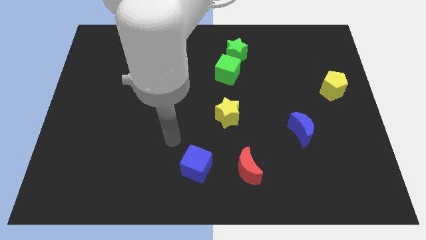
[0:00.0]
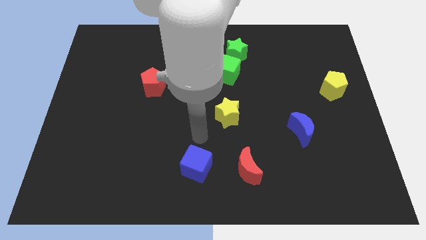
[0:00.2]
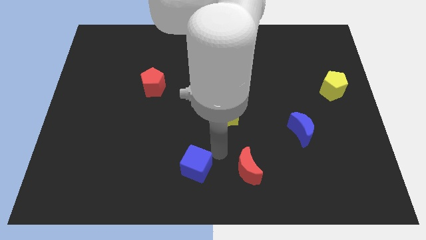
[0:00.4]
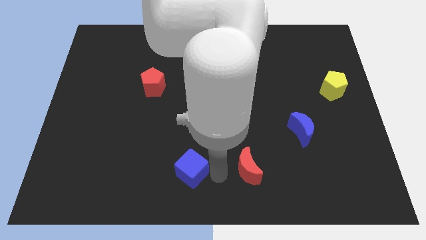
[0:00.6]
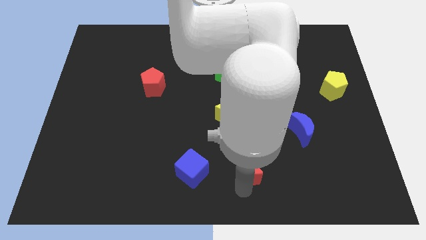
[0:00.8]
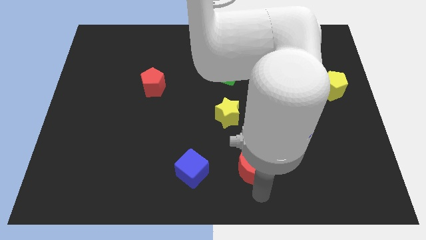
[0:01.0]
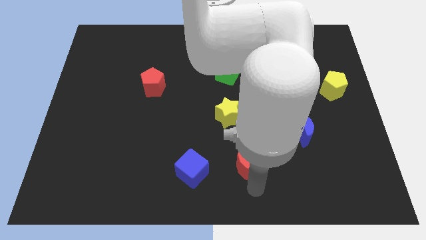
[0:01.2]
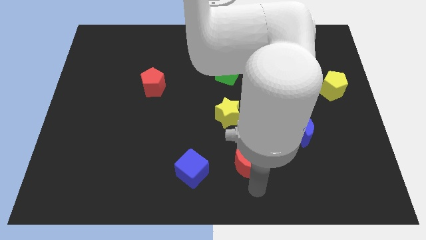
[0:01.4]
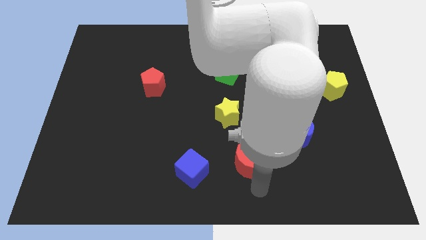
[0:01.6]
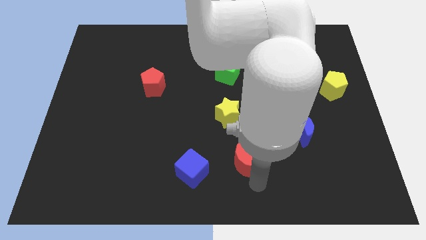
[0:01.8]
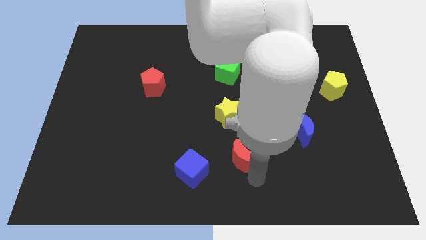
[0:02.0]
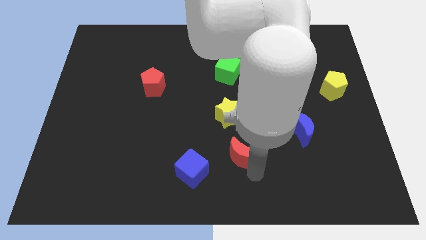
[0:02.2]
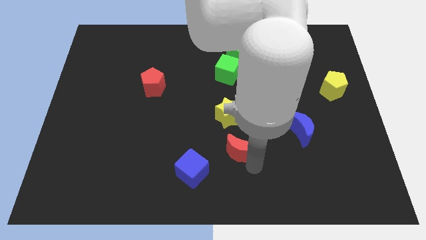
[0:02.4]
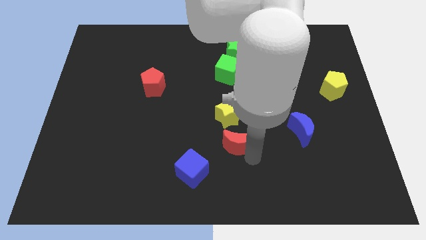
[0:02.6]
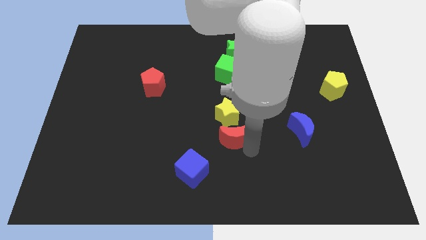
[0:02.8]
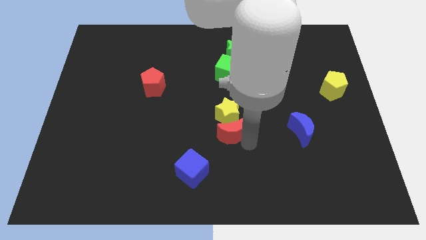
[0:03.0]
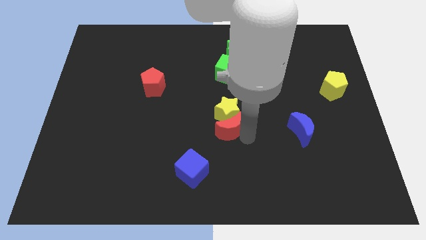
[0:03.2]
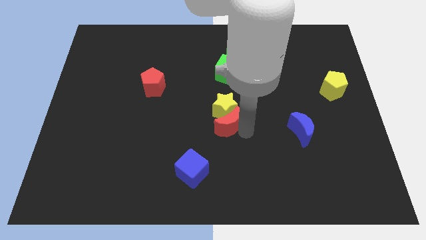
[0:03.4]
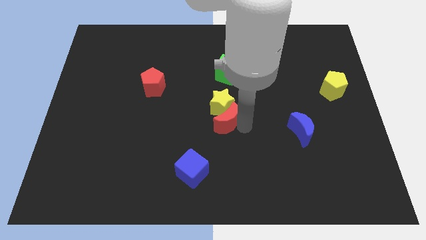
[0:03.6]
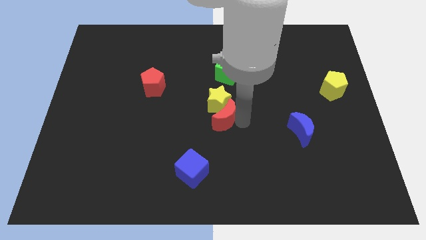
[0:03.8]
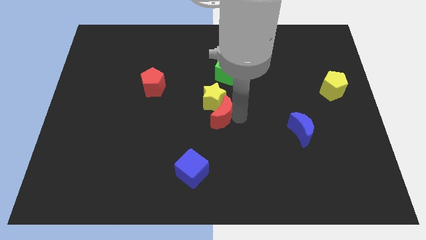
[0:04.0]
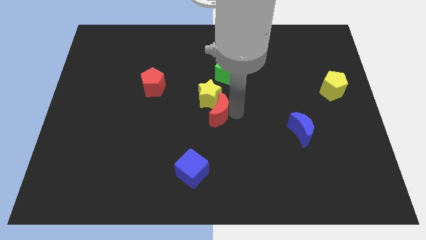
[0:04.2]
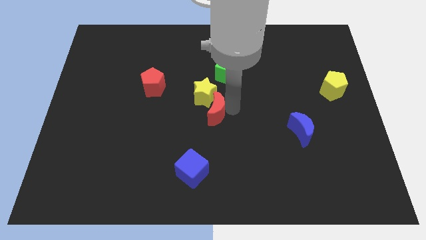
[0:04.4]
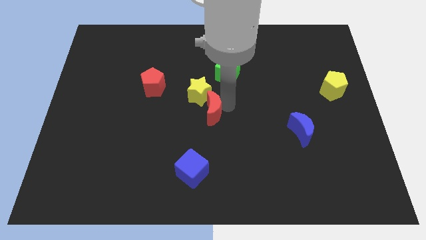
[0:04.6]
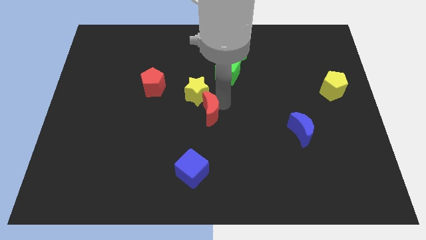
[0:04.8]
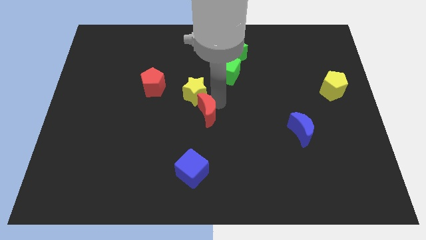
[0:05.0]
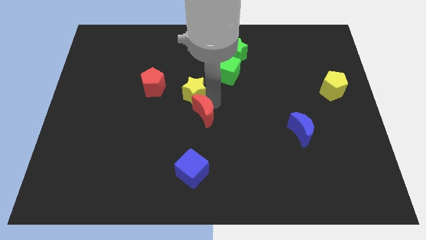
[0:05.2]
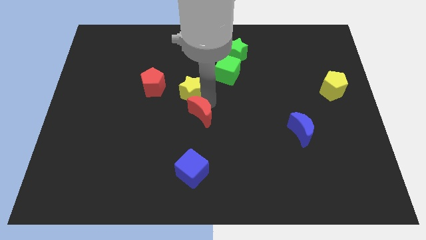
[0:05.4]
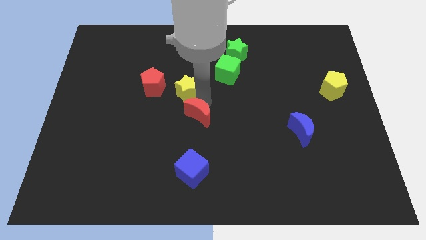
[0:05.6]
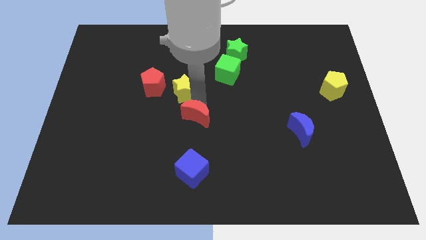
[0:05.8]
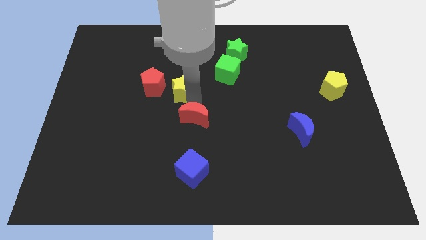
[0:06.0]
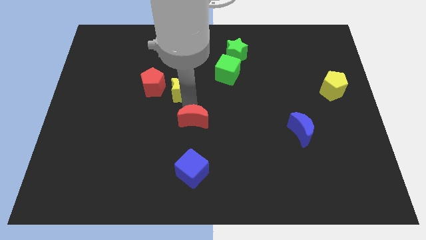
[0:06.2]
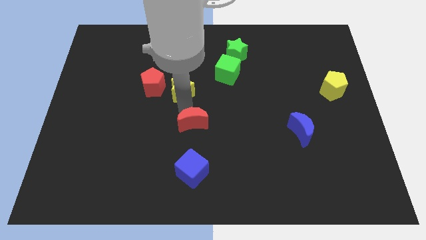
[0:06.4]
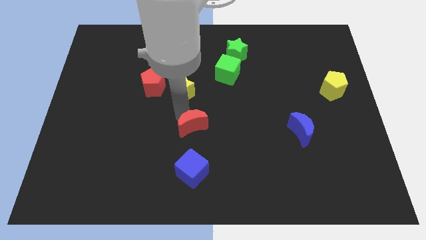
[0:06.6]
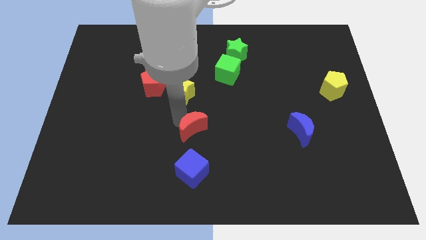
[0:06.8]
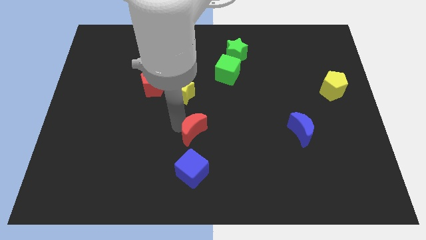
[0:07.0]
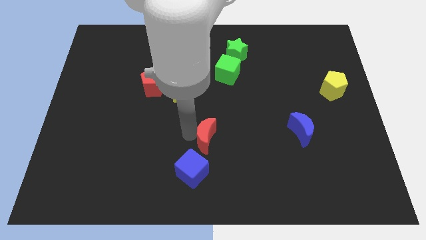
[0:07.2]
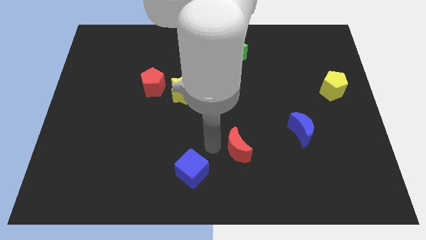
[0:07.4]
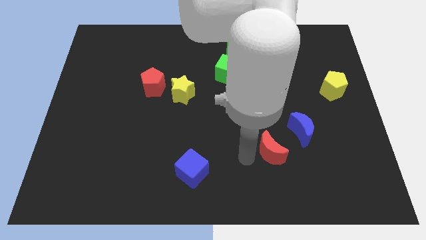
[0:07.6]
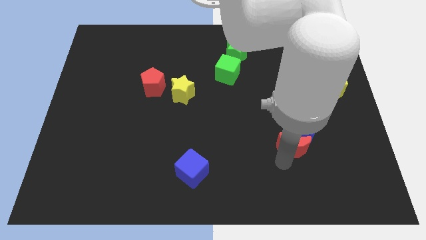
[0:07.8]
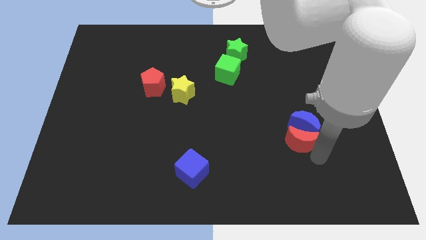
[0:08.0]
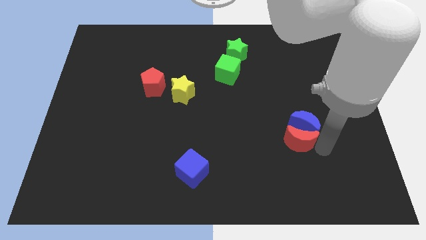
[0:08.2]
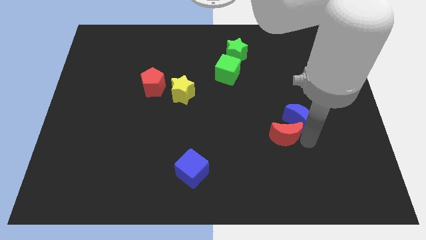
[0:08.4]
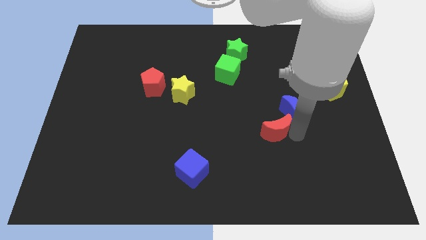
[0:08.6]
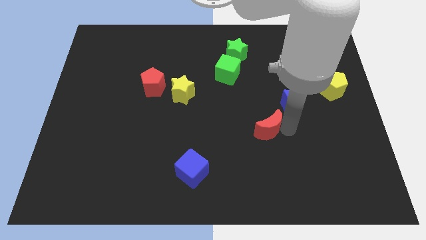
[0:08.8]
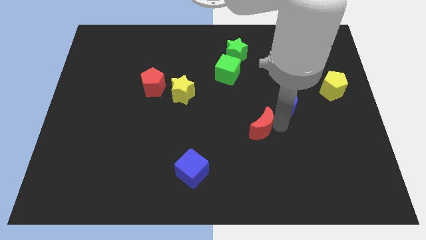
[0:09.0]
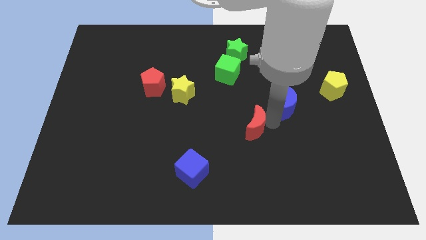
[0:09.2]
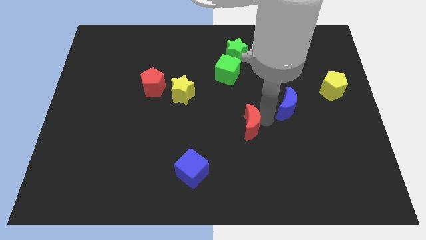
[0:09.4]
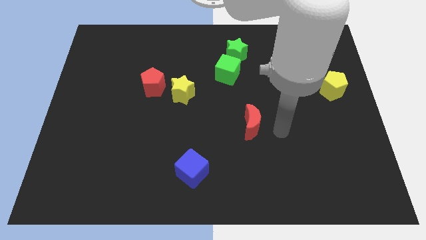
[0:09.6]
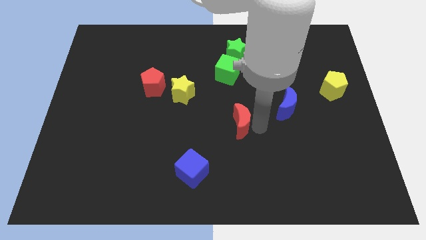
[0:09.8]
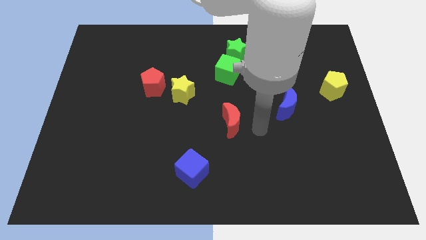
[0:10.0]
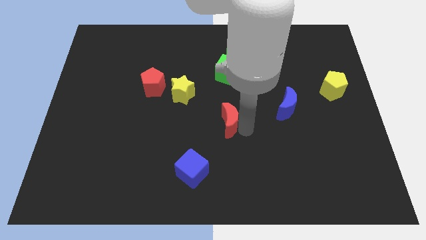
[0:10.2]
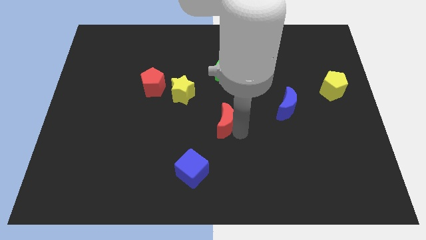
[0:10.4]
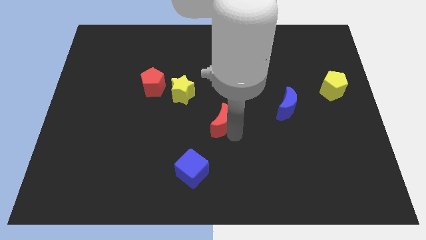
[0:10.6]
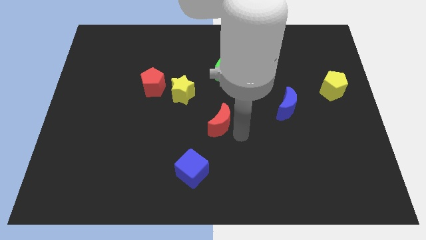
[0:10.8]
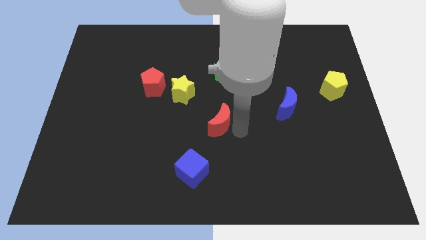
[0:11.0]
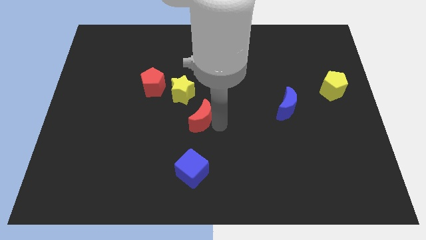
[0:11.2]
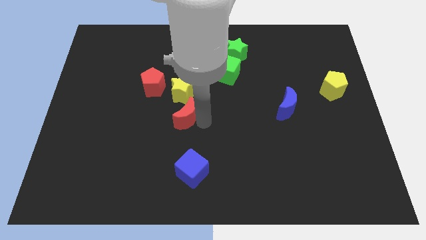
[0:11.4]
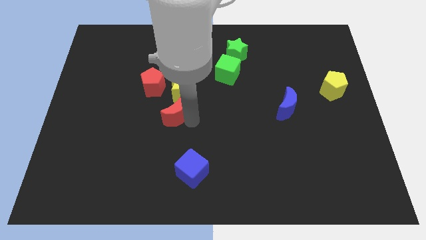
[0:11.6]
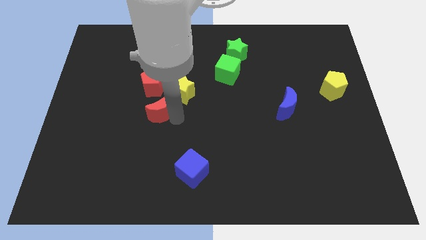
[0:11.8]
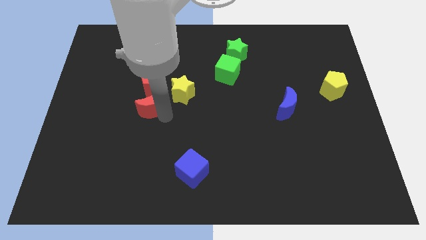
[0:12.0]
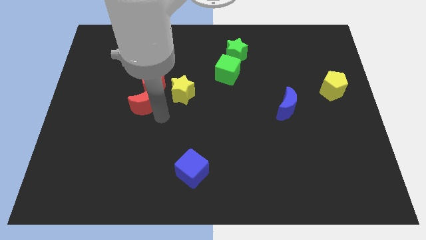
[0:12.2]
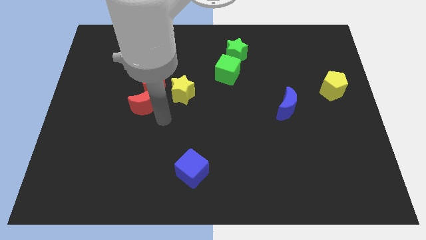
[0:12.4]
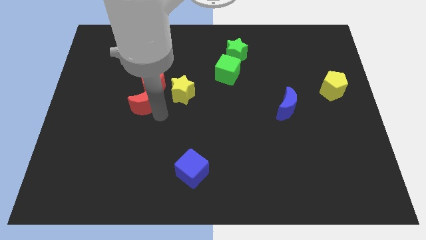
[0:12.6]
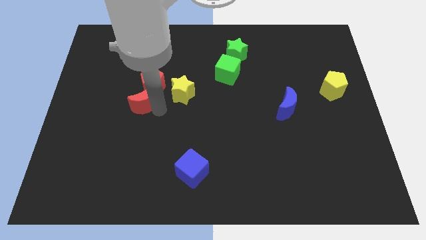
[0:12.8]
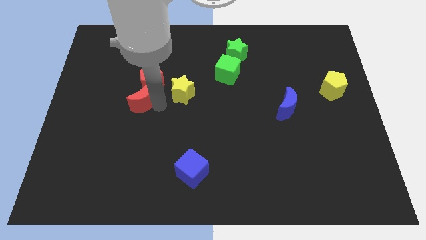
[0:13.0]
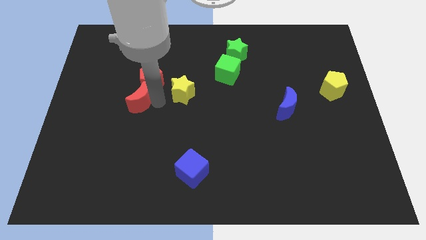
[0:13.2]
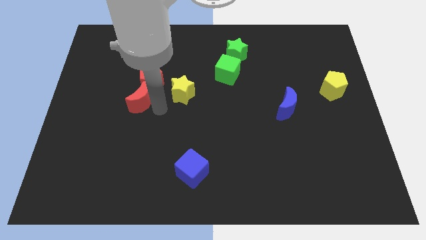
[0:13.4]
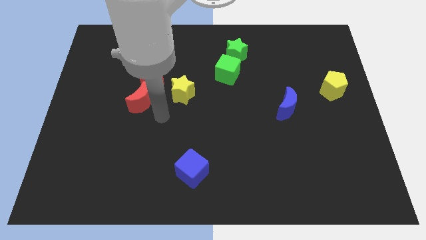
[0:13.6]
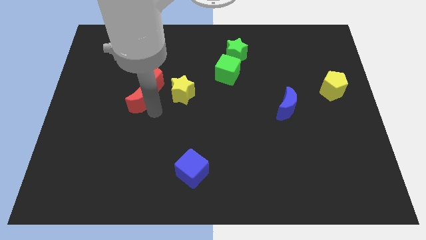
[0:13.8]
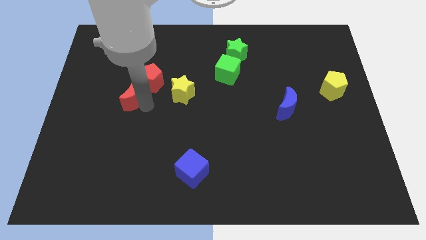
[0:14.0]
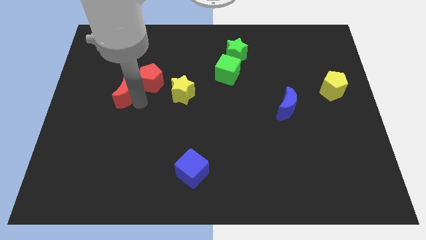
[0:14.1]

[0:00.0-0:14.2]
move the red moon just left of the red pentagon
